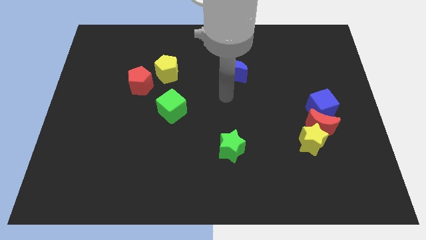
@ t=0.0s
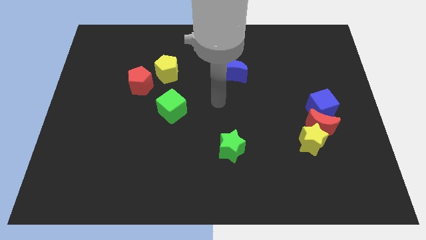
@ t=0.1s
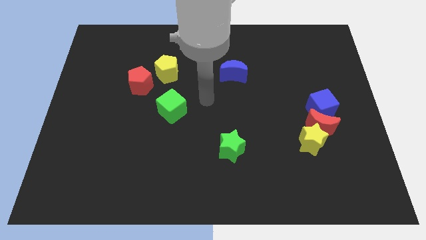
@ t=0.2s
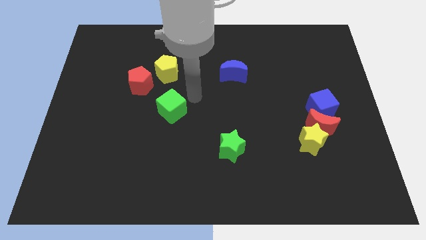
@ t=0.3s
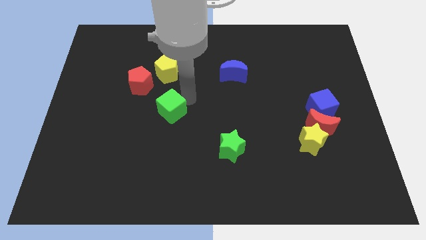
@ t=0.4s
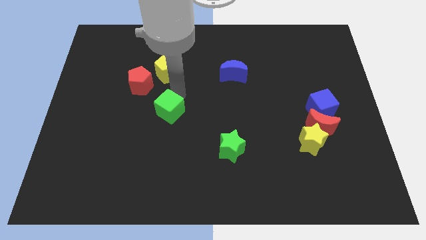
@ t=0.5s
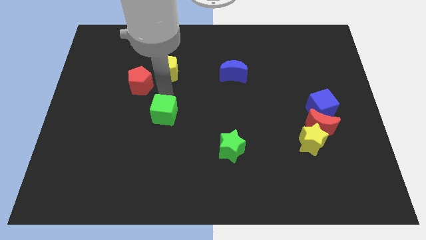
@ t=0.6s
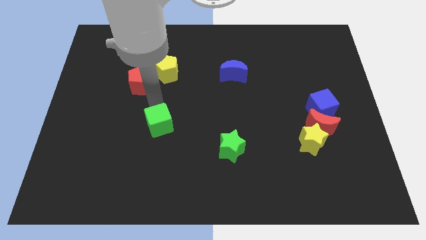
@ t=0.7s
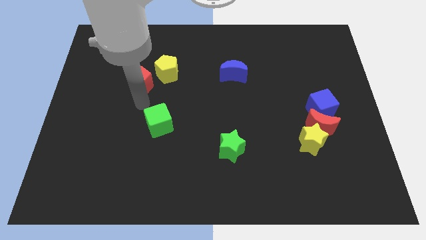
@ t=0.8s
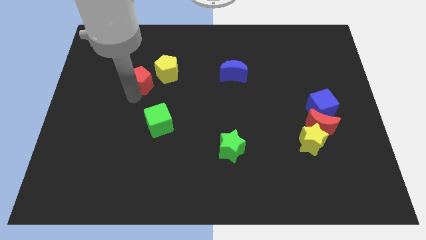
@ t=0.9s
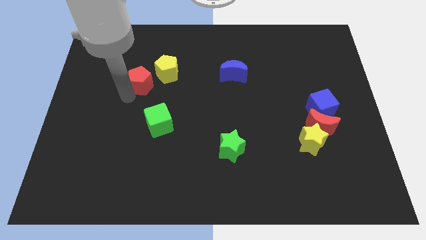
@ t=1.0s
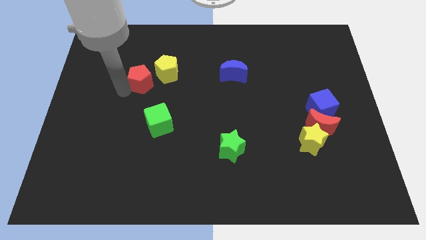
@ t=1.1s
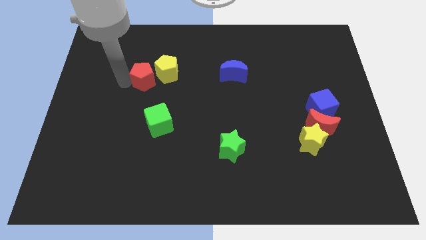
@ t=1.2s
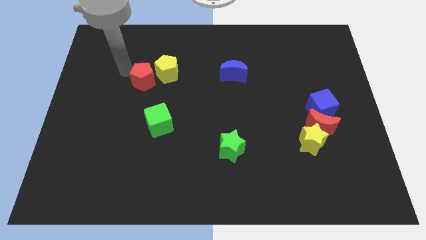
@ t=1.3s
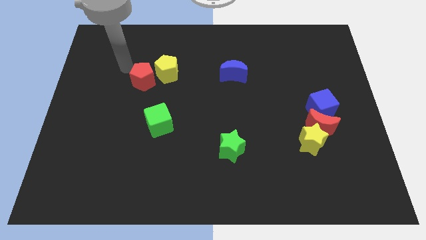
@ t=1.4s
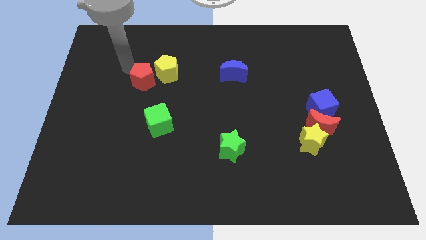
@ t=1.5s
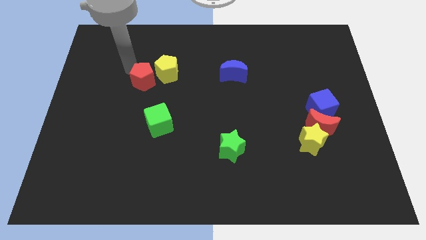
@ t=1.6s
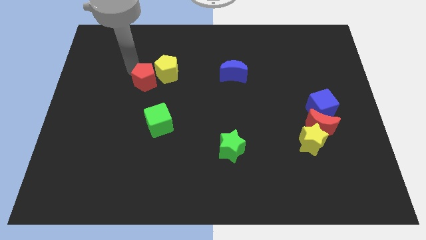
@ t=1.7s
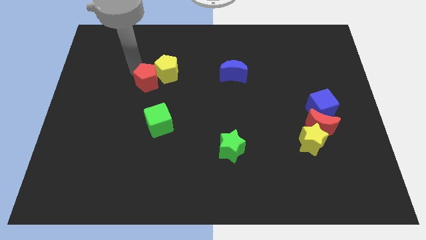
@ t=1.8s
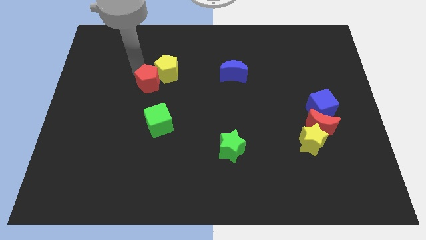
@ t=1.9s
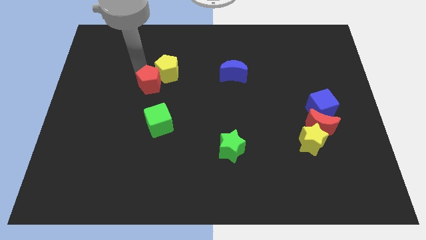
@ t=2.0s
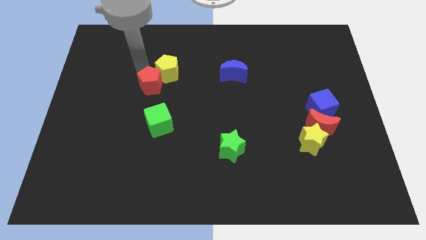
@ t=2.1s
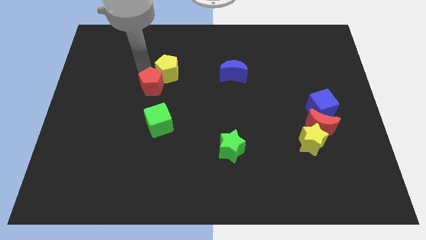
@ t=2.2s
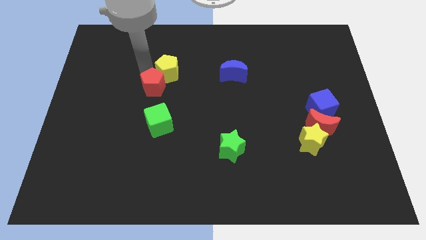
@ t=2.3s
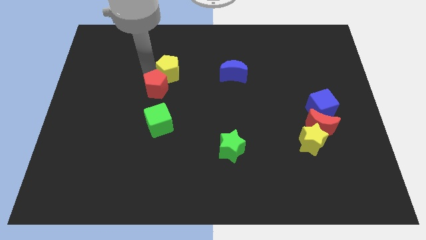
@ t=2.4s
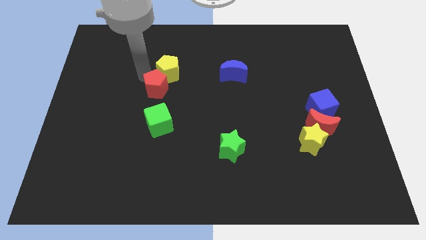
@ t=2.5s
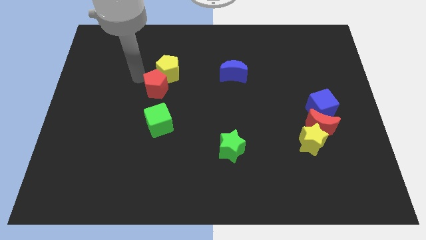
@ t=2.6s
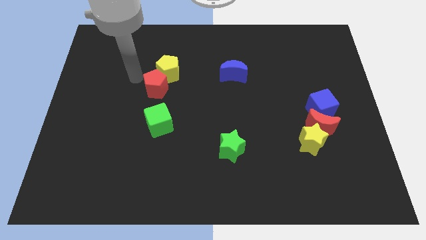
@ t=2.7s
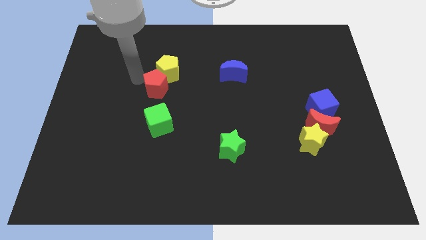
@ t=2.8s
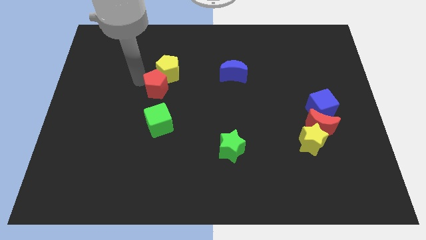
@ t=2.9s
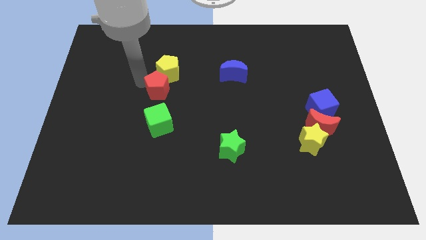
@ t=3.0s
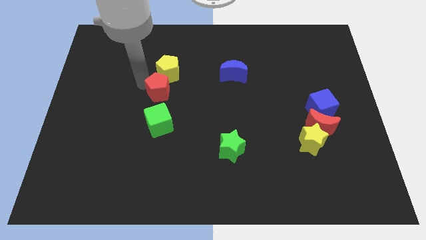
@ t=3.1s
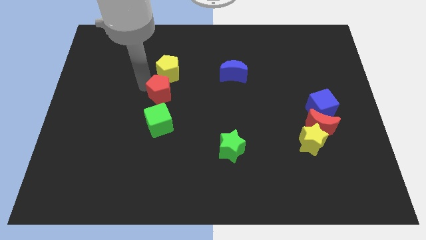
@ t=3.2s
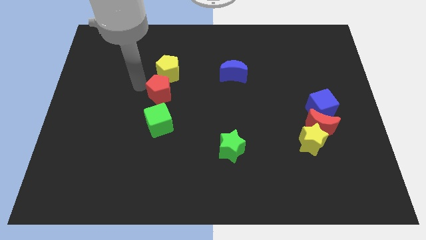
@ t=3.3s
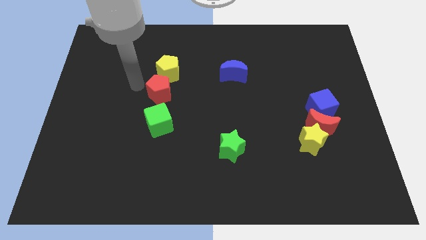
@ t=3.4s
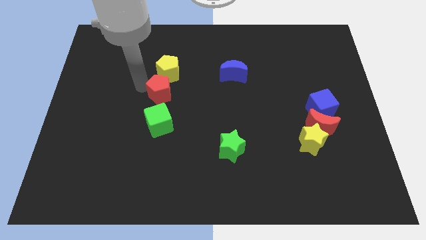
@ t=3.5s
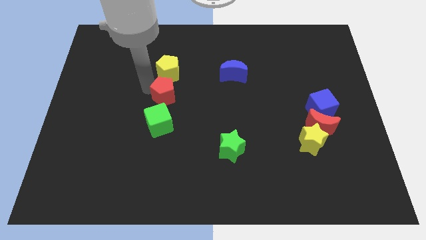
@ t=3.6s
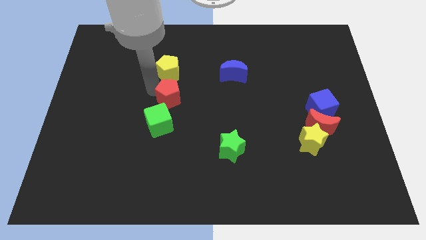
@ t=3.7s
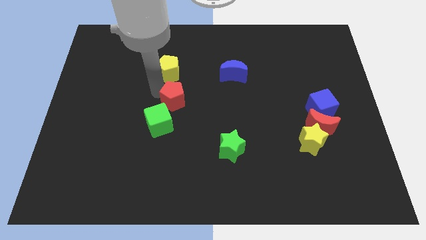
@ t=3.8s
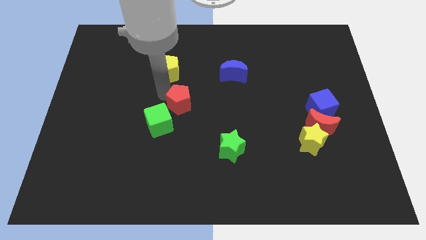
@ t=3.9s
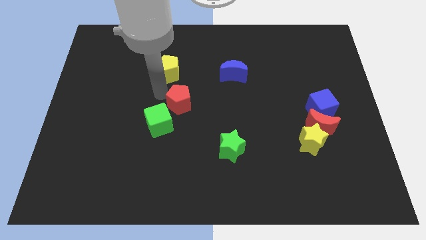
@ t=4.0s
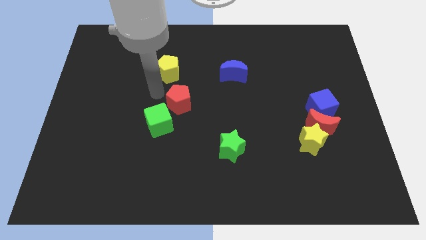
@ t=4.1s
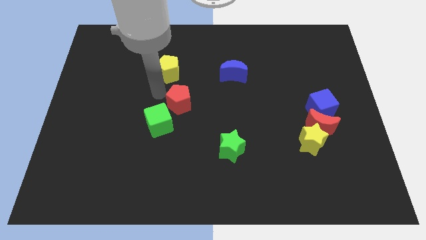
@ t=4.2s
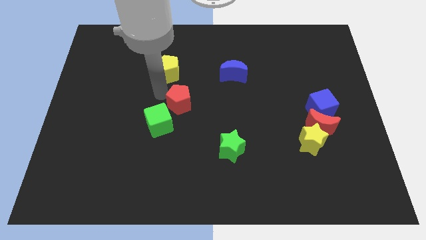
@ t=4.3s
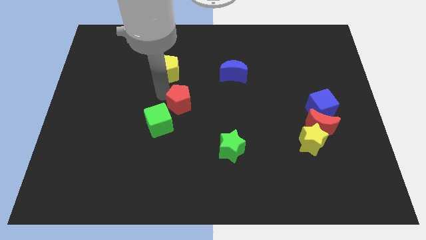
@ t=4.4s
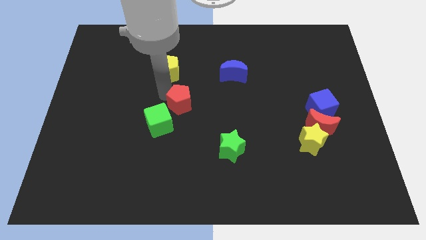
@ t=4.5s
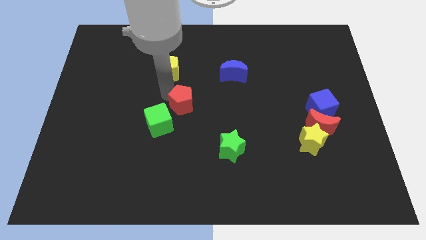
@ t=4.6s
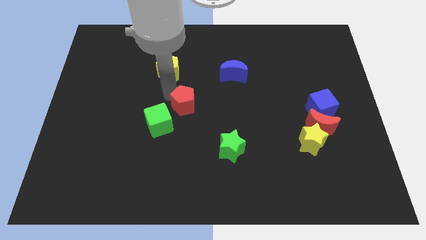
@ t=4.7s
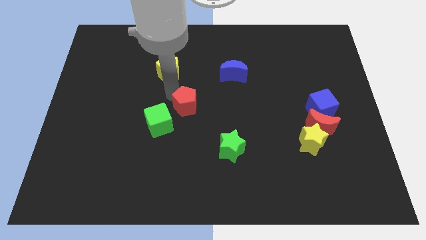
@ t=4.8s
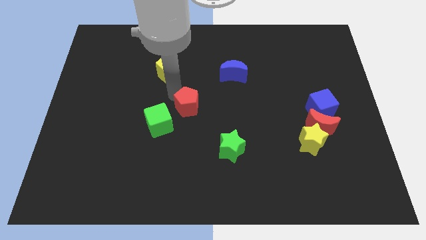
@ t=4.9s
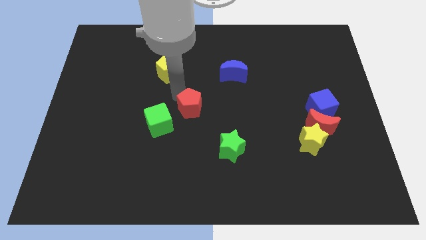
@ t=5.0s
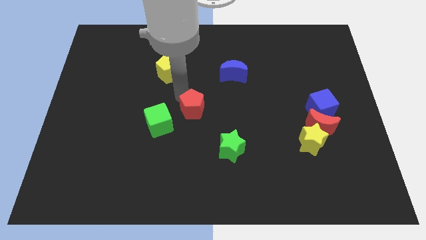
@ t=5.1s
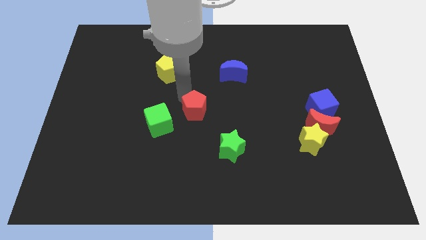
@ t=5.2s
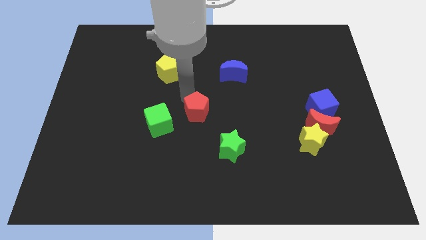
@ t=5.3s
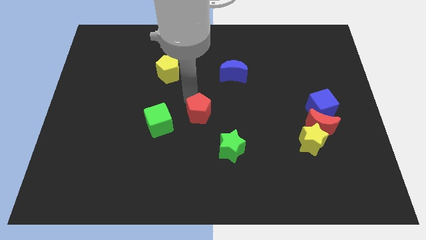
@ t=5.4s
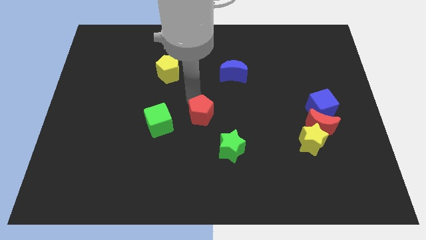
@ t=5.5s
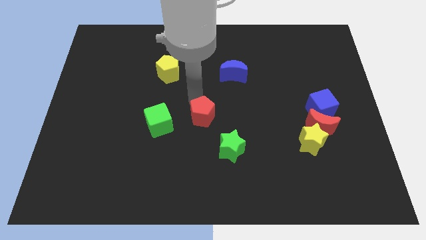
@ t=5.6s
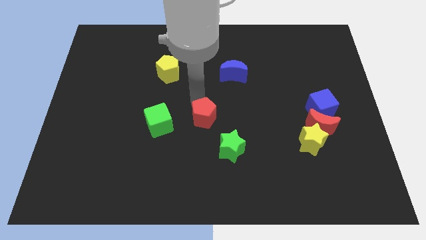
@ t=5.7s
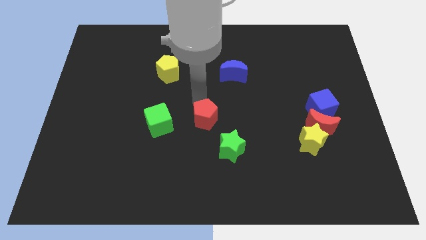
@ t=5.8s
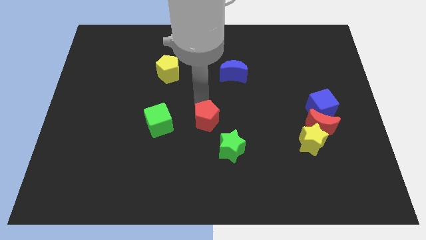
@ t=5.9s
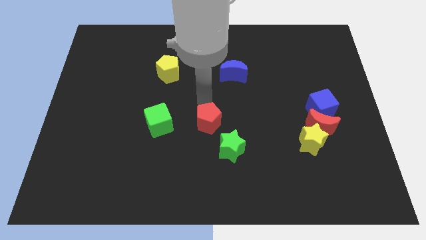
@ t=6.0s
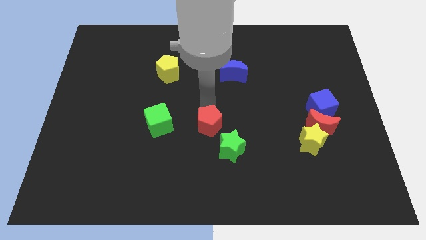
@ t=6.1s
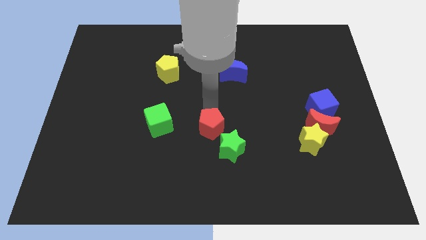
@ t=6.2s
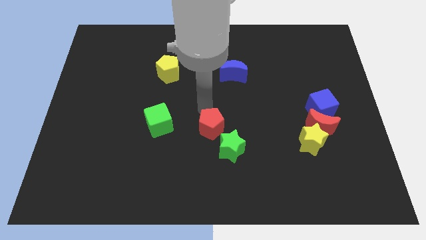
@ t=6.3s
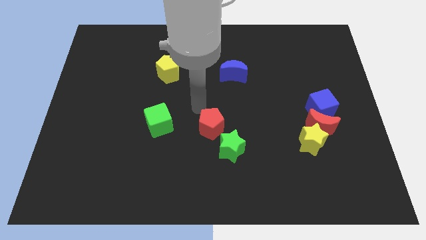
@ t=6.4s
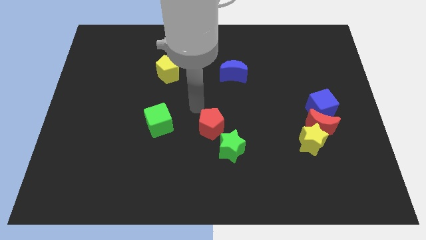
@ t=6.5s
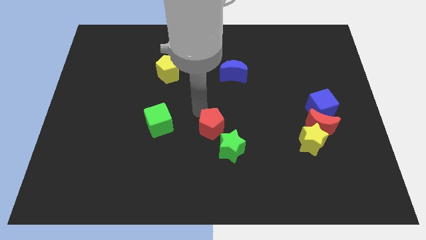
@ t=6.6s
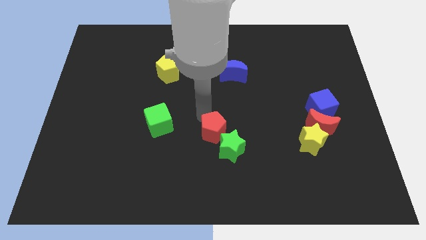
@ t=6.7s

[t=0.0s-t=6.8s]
move the red pentagon towards the green star

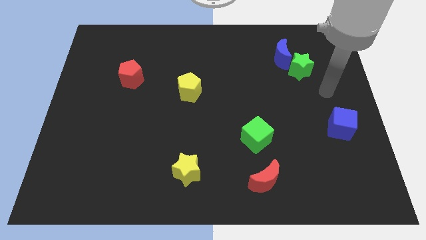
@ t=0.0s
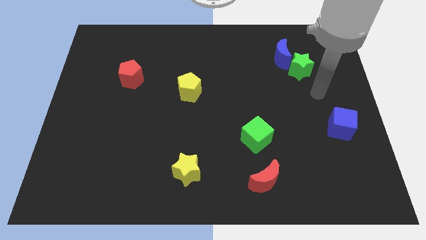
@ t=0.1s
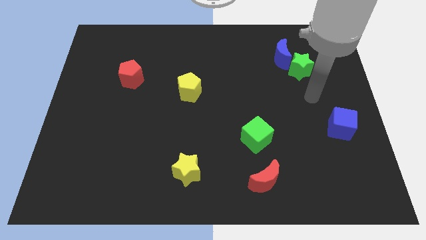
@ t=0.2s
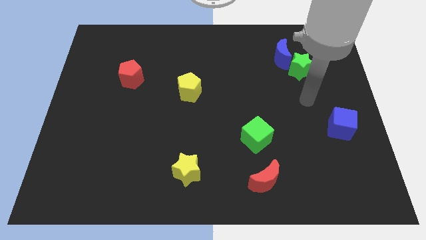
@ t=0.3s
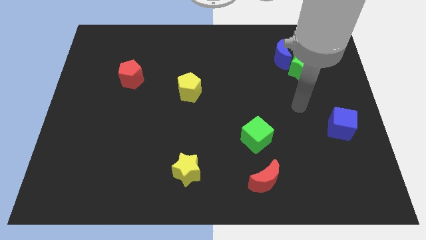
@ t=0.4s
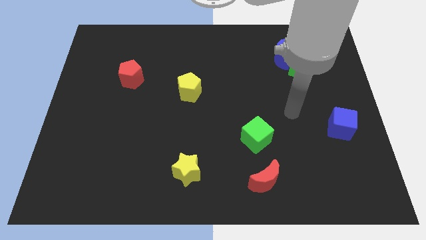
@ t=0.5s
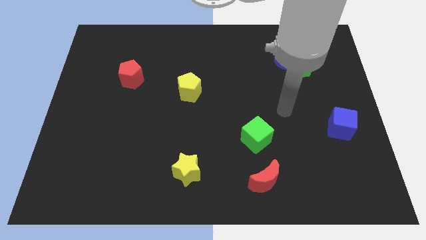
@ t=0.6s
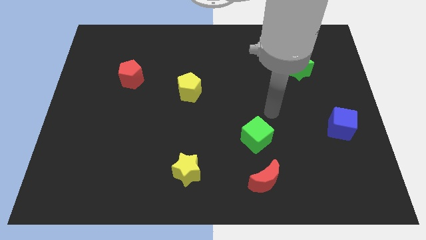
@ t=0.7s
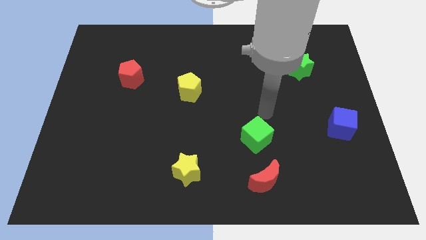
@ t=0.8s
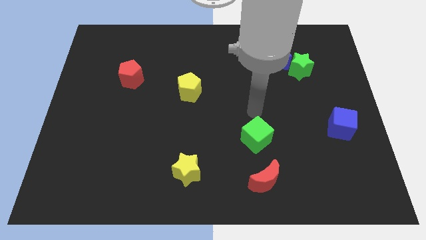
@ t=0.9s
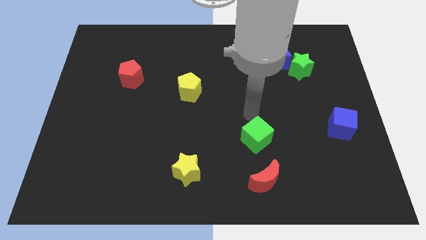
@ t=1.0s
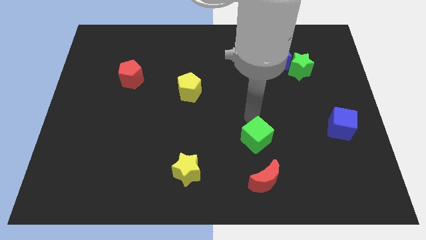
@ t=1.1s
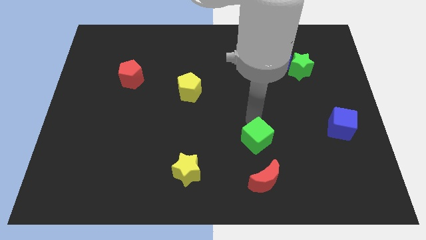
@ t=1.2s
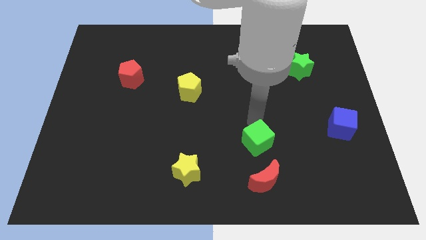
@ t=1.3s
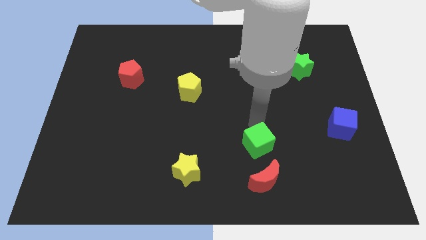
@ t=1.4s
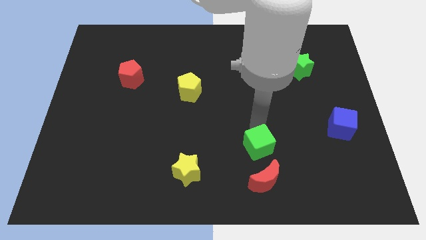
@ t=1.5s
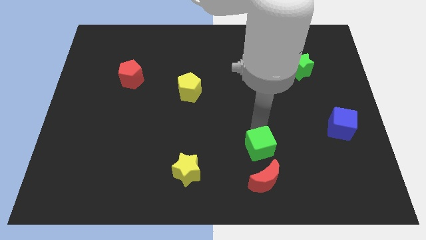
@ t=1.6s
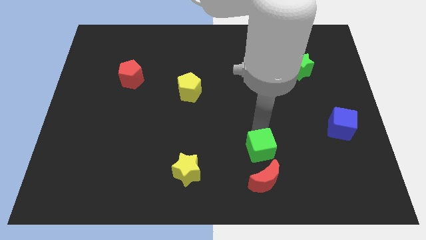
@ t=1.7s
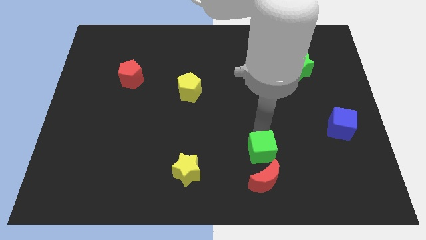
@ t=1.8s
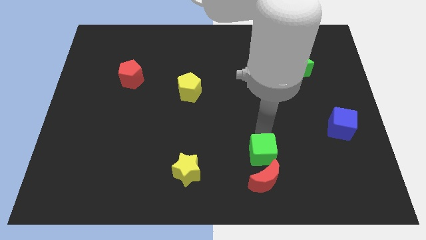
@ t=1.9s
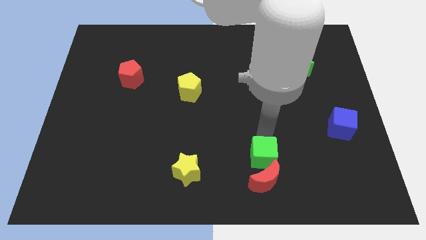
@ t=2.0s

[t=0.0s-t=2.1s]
push the green cube to the red moon
